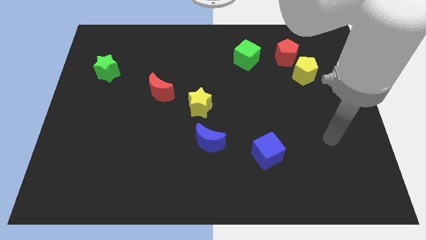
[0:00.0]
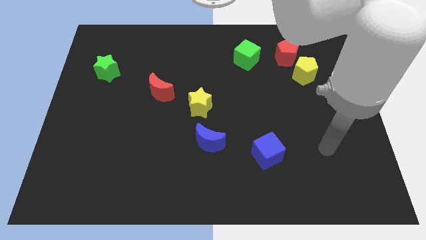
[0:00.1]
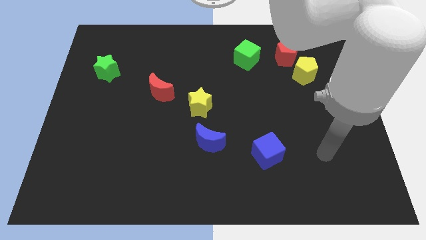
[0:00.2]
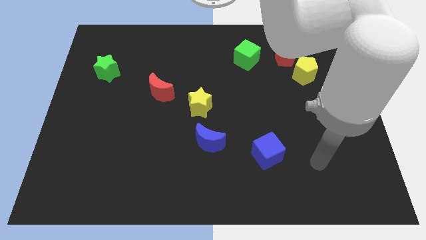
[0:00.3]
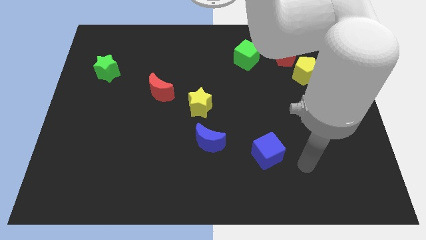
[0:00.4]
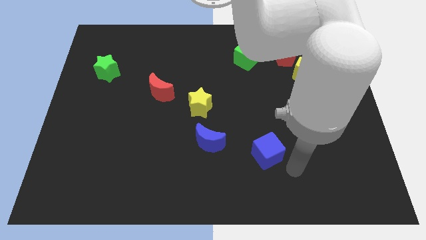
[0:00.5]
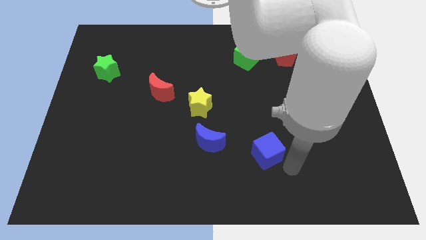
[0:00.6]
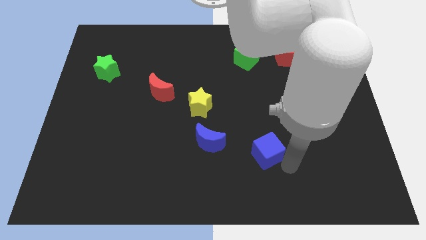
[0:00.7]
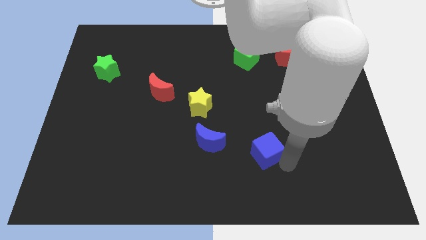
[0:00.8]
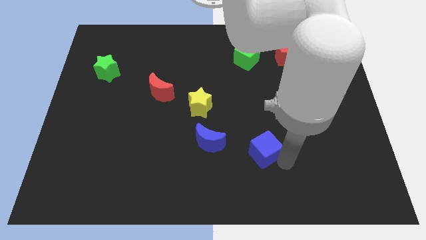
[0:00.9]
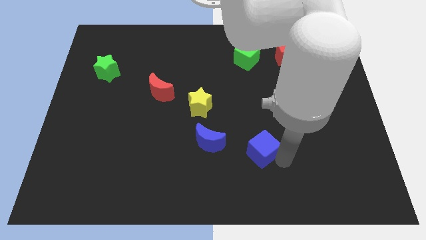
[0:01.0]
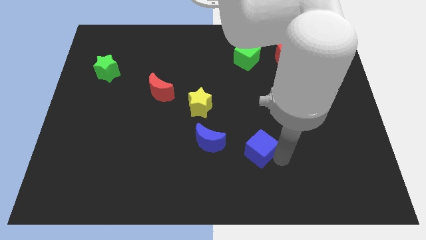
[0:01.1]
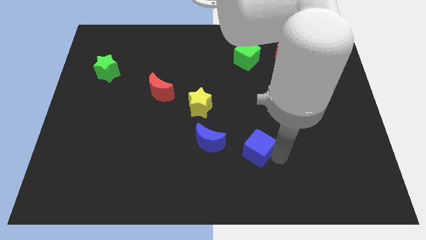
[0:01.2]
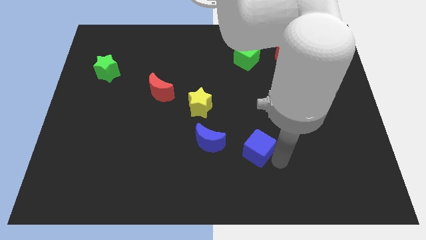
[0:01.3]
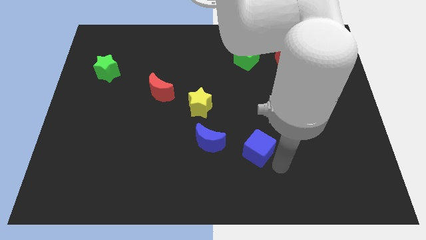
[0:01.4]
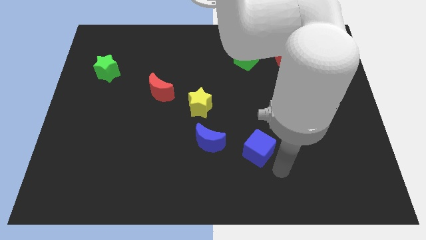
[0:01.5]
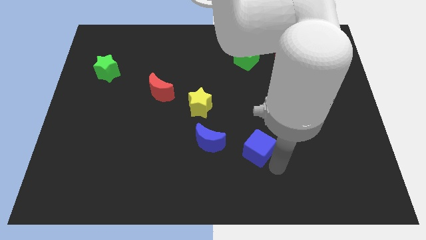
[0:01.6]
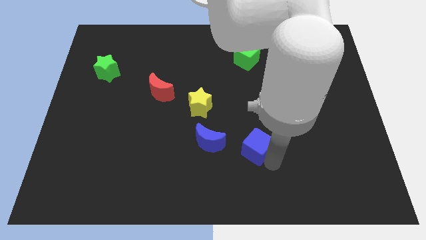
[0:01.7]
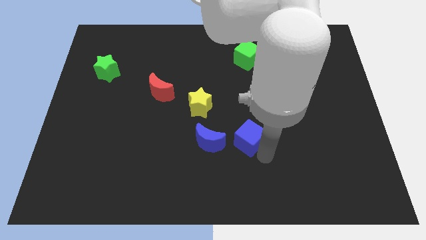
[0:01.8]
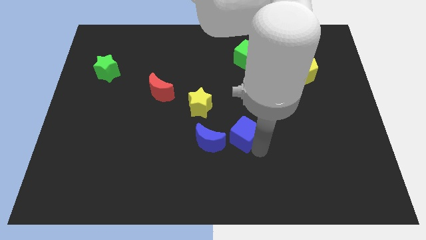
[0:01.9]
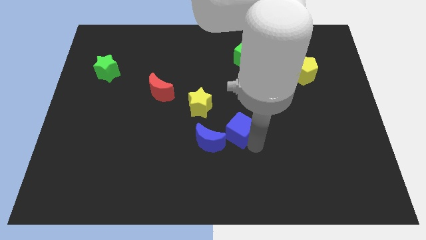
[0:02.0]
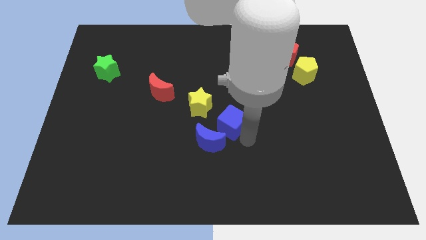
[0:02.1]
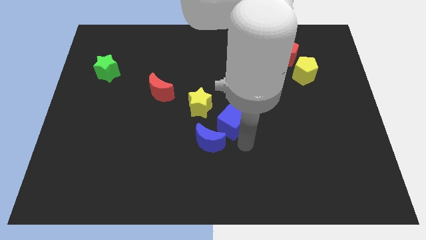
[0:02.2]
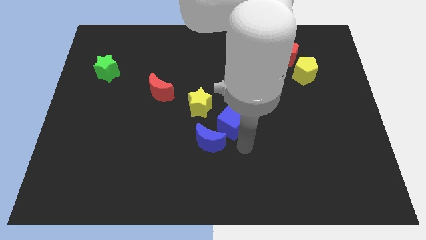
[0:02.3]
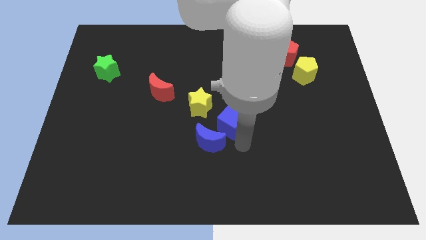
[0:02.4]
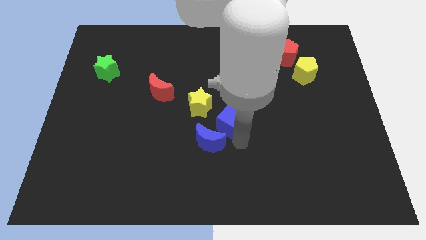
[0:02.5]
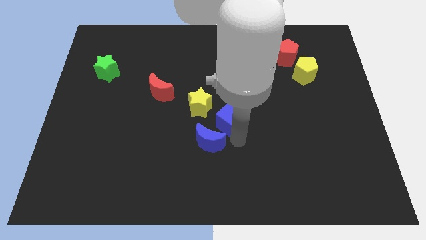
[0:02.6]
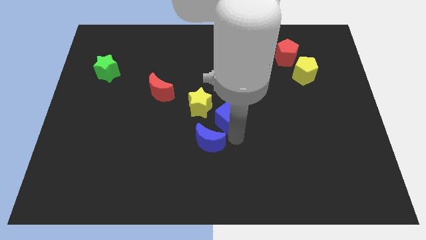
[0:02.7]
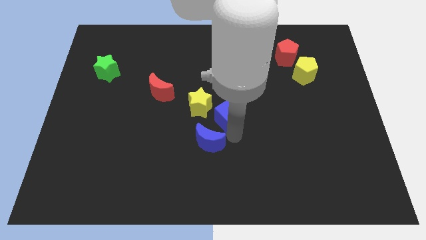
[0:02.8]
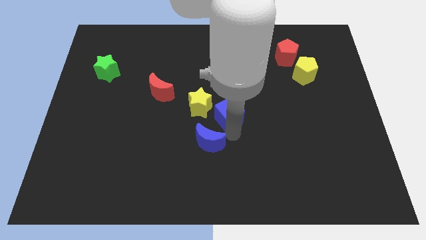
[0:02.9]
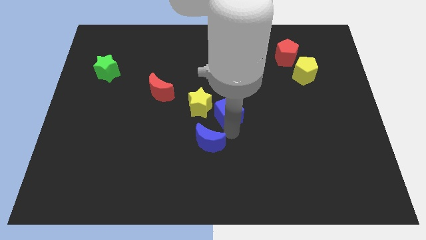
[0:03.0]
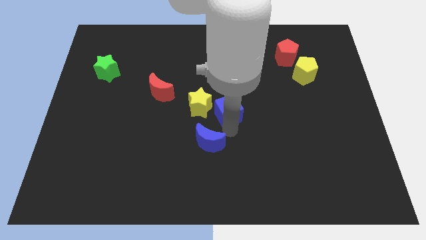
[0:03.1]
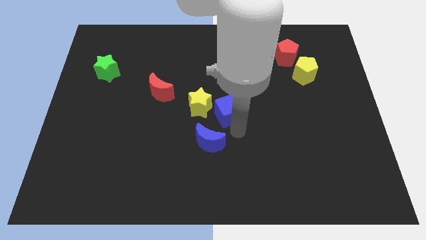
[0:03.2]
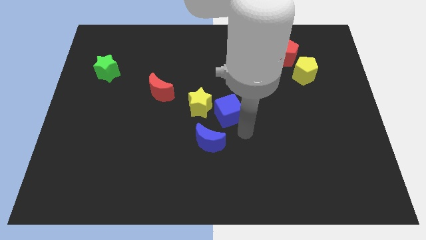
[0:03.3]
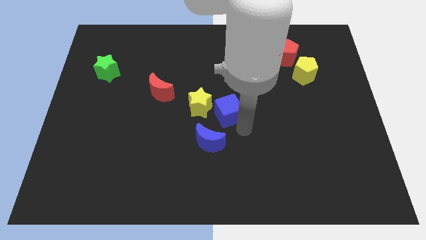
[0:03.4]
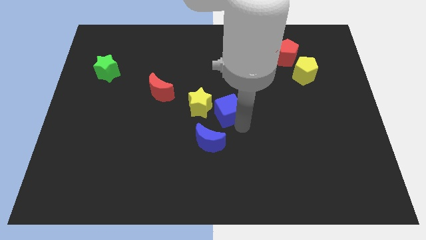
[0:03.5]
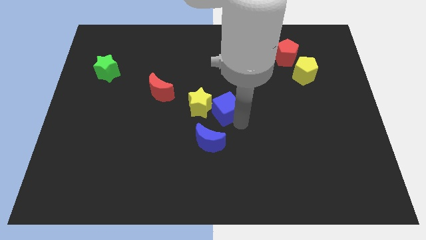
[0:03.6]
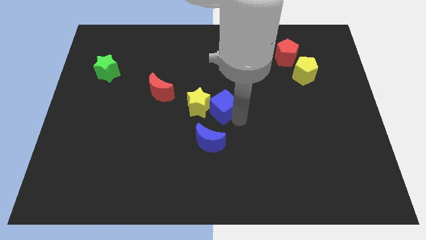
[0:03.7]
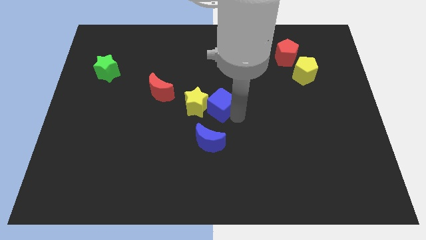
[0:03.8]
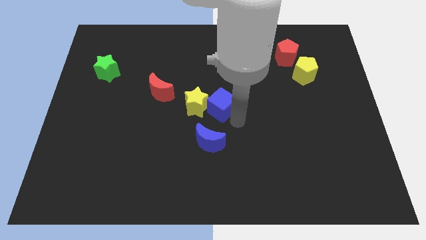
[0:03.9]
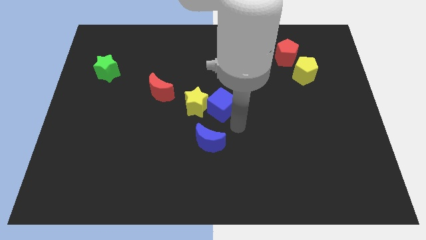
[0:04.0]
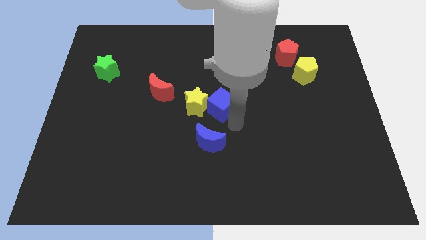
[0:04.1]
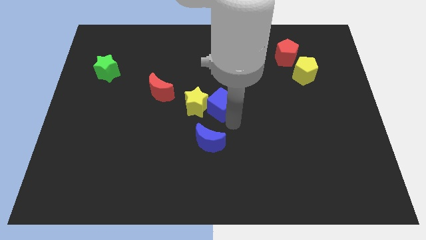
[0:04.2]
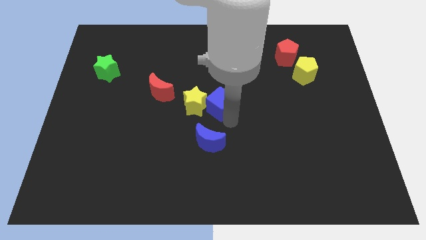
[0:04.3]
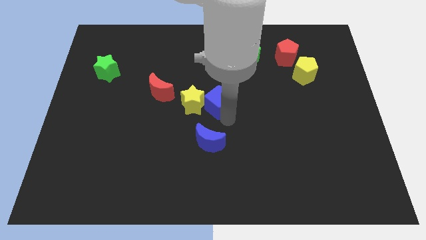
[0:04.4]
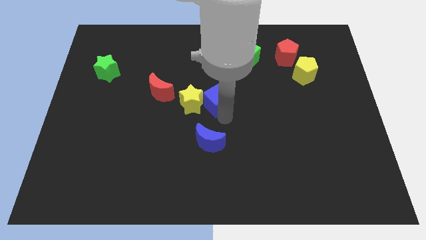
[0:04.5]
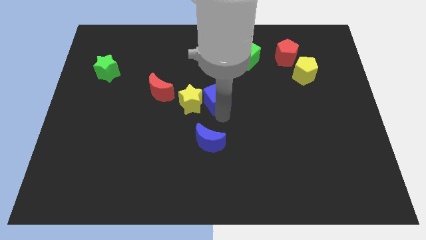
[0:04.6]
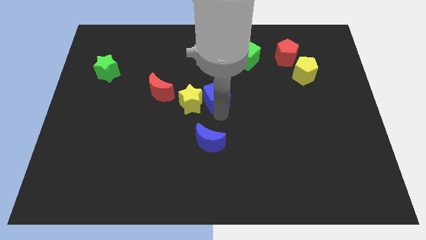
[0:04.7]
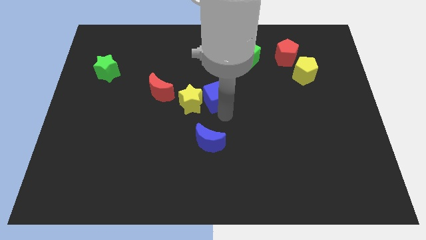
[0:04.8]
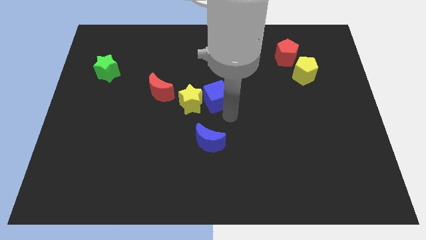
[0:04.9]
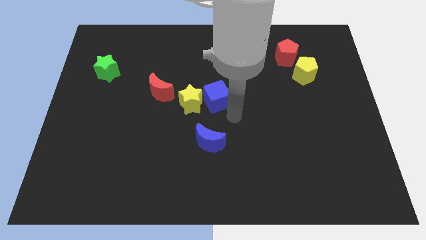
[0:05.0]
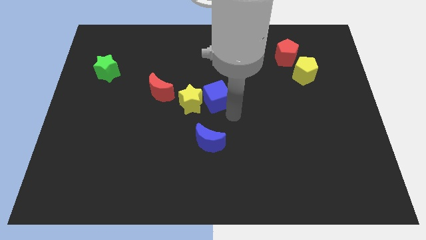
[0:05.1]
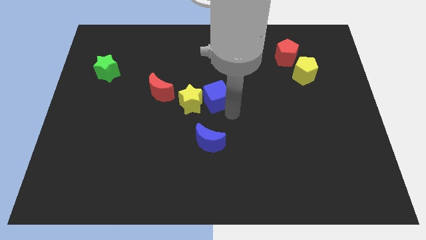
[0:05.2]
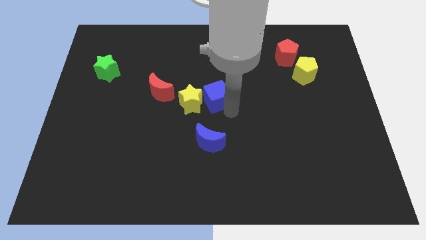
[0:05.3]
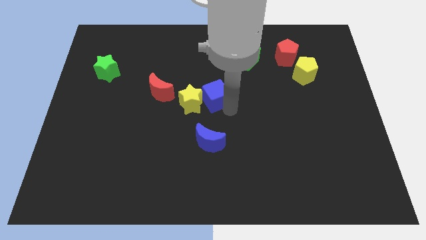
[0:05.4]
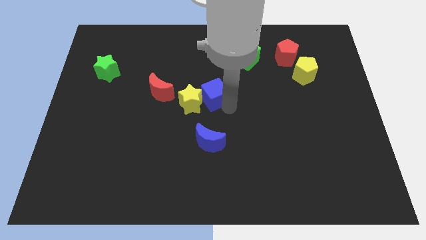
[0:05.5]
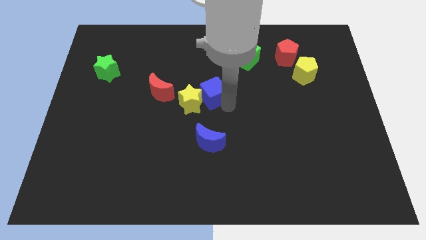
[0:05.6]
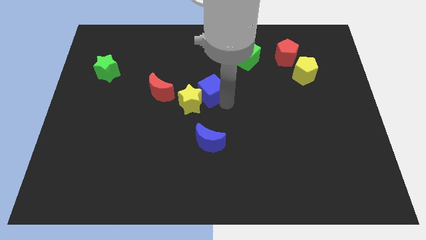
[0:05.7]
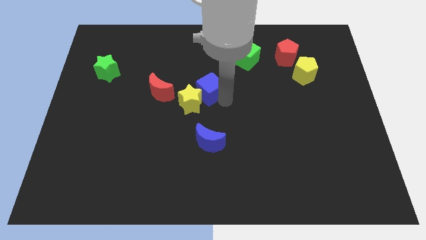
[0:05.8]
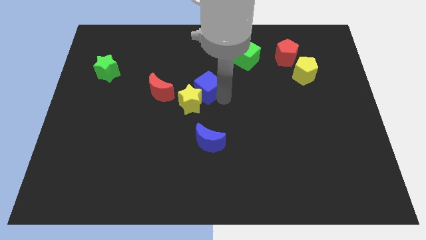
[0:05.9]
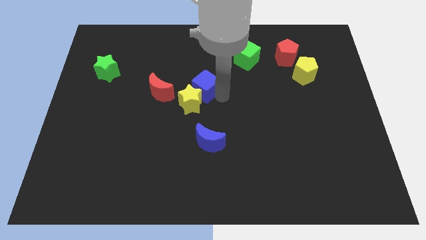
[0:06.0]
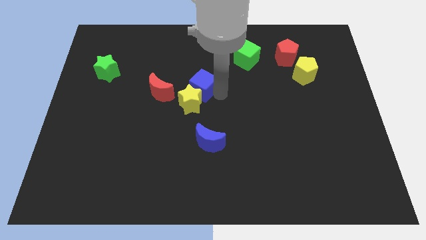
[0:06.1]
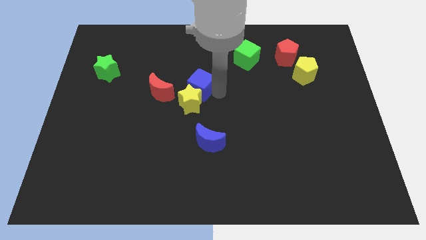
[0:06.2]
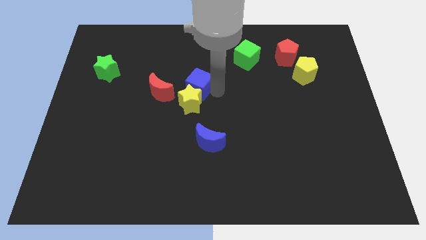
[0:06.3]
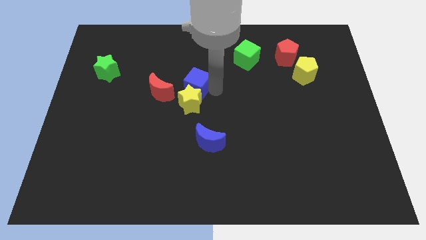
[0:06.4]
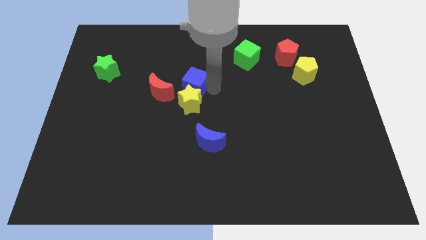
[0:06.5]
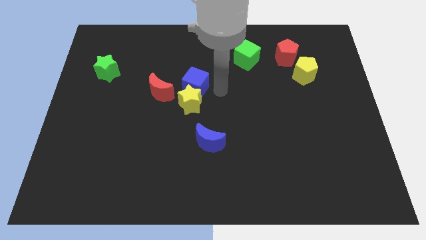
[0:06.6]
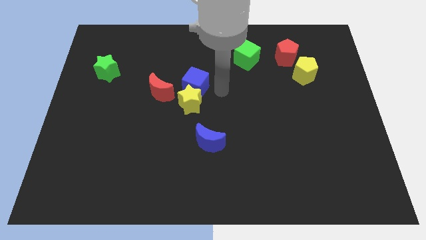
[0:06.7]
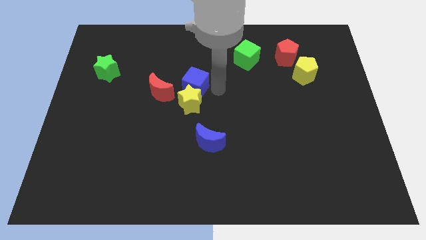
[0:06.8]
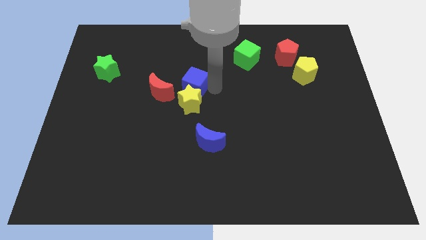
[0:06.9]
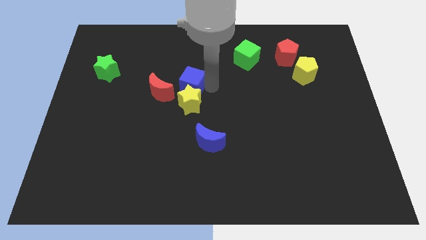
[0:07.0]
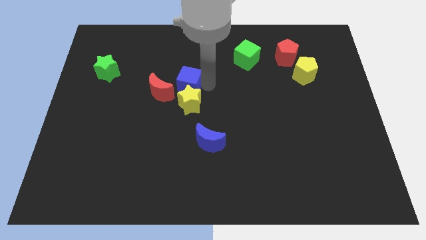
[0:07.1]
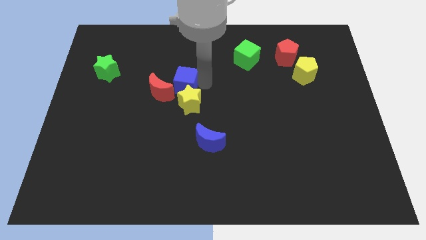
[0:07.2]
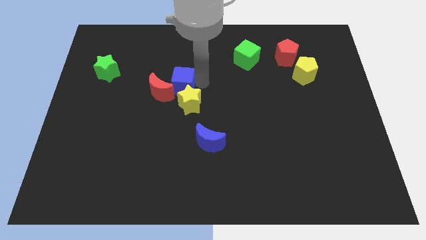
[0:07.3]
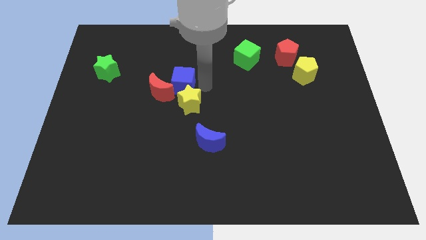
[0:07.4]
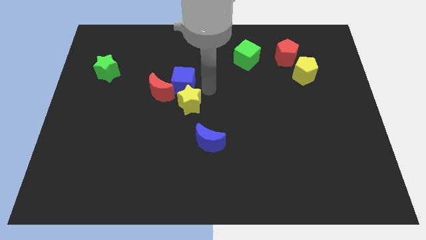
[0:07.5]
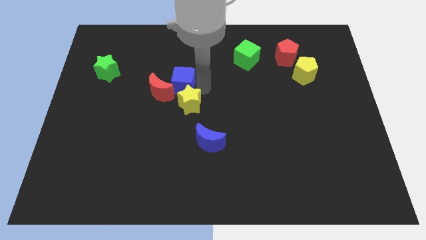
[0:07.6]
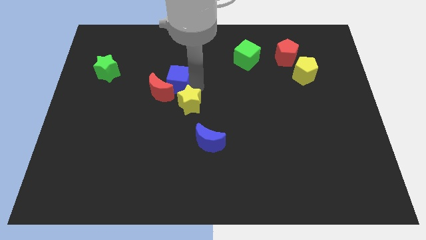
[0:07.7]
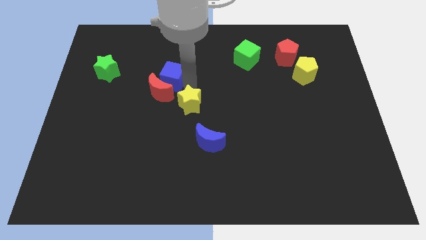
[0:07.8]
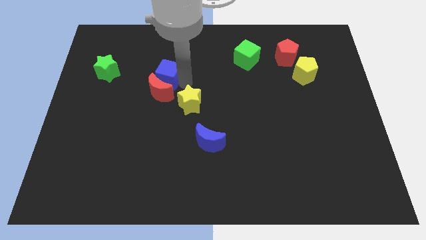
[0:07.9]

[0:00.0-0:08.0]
push the blue cube diagonally up and to the left of the red moon
